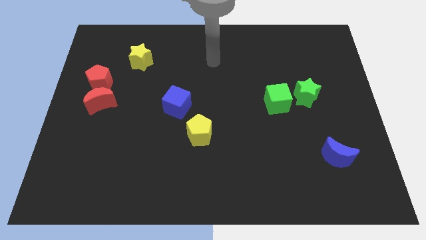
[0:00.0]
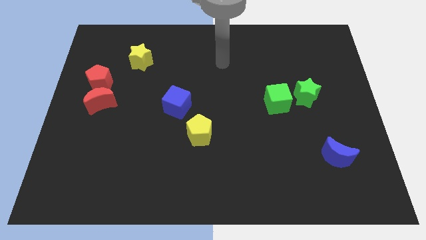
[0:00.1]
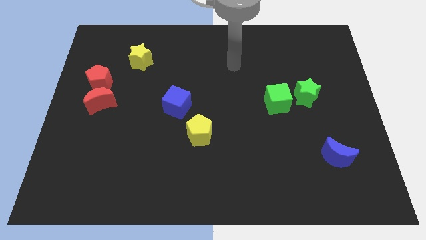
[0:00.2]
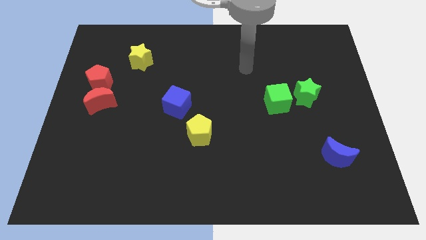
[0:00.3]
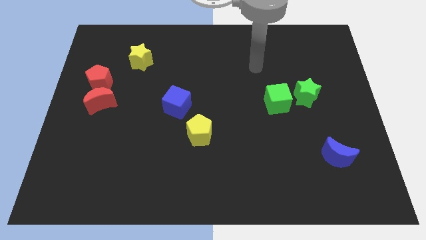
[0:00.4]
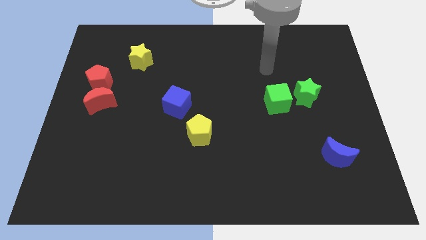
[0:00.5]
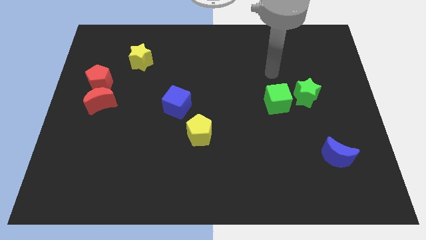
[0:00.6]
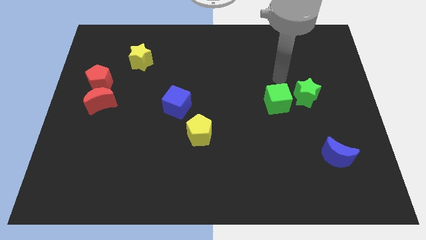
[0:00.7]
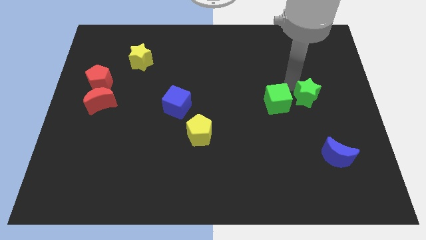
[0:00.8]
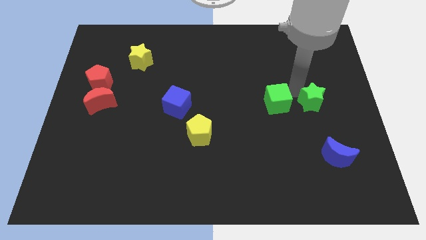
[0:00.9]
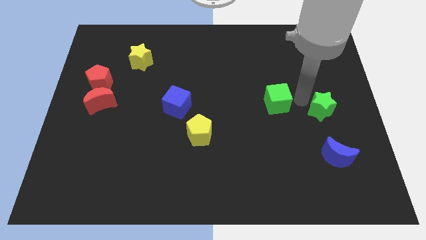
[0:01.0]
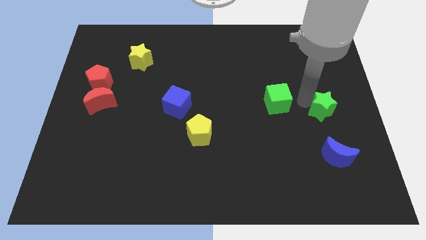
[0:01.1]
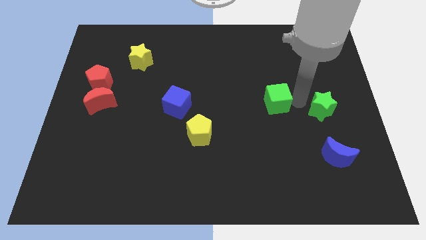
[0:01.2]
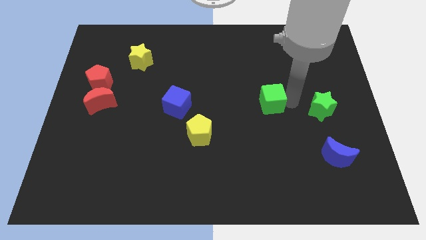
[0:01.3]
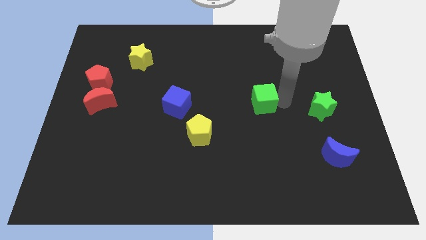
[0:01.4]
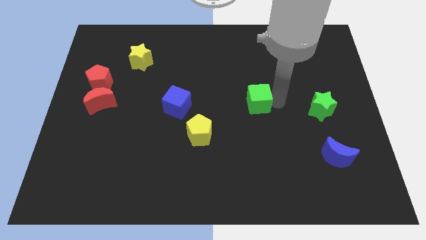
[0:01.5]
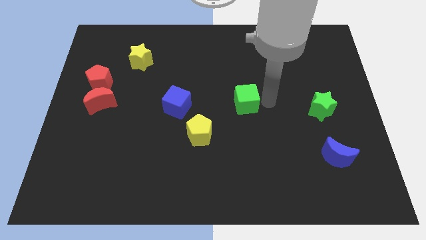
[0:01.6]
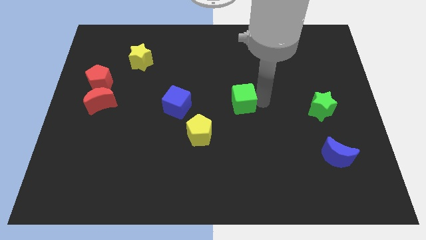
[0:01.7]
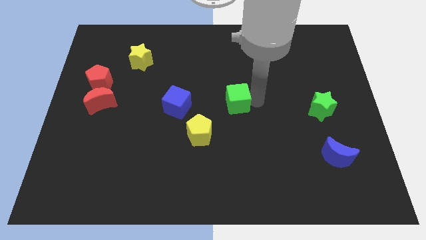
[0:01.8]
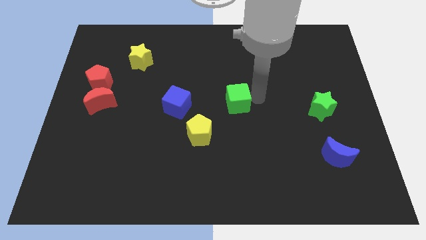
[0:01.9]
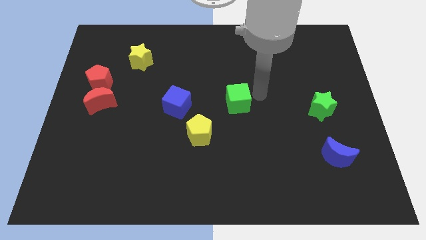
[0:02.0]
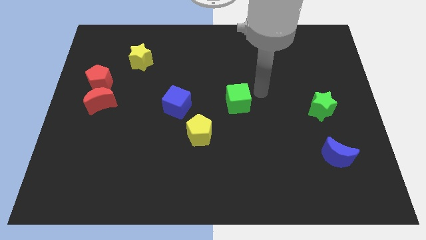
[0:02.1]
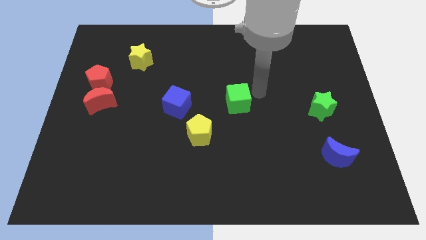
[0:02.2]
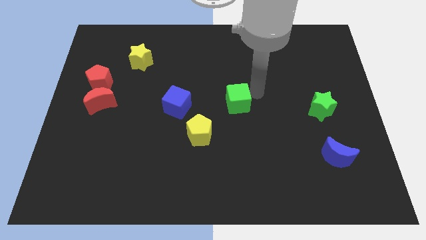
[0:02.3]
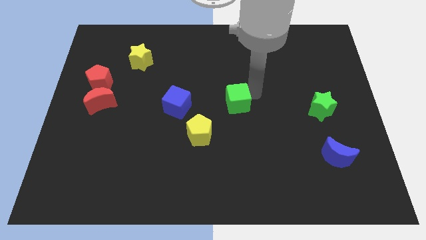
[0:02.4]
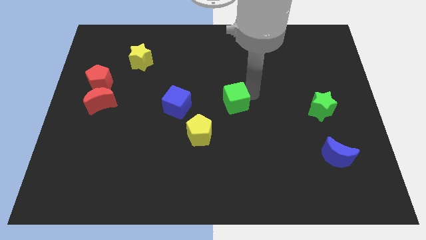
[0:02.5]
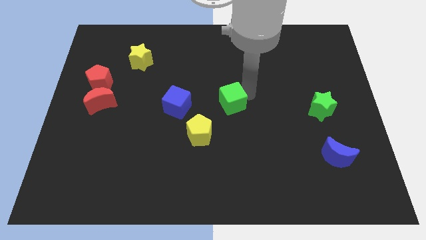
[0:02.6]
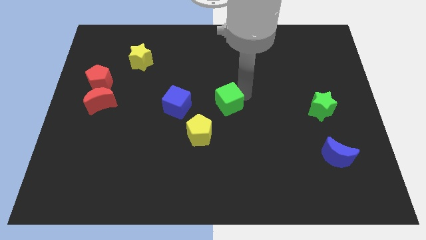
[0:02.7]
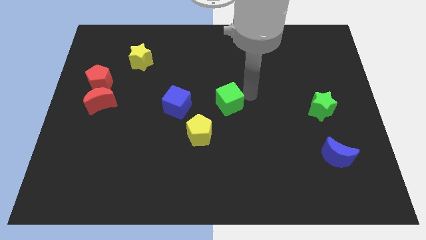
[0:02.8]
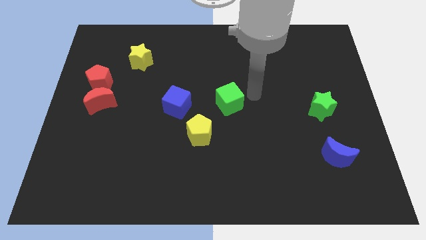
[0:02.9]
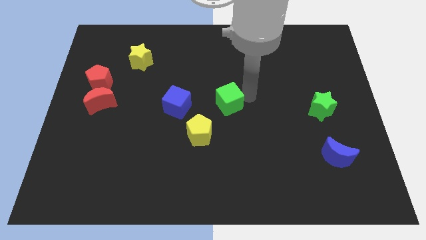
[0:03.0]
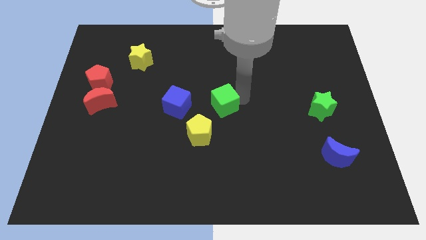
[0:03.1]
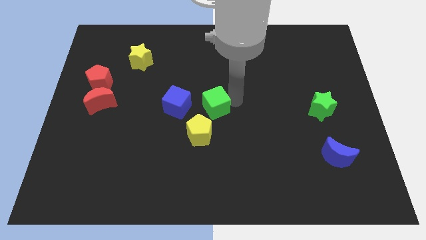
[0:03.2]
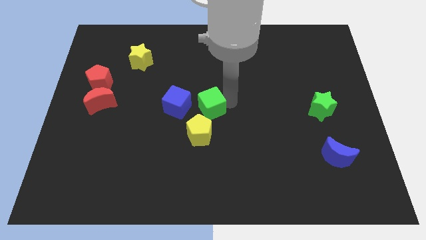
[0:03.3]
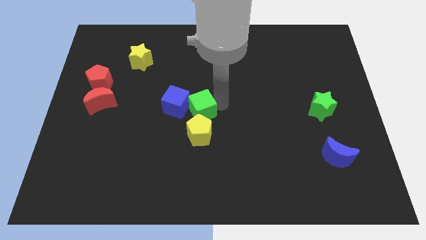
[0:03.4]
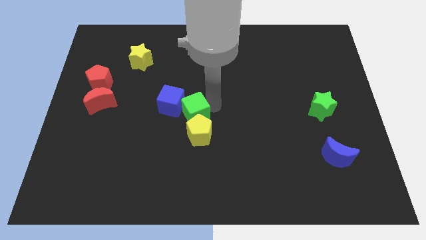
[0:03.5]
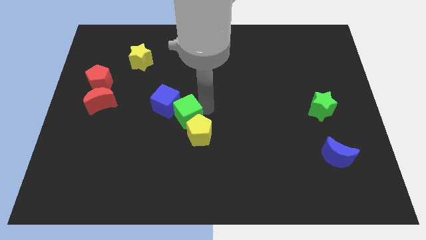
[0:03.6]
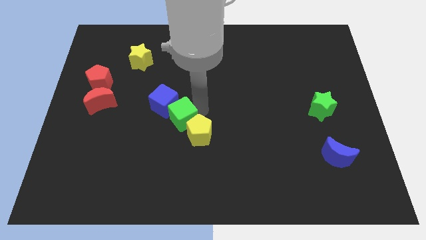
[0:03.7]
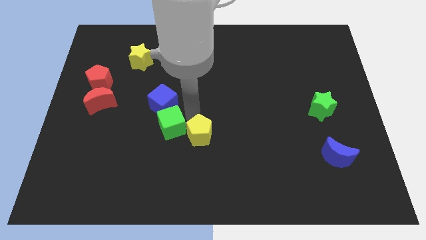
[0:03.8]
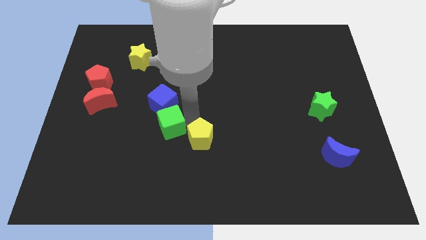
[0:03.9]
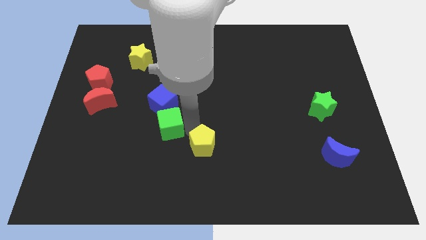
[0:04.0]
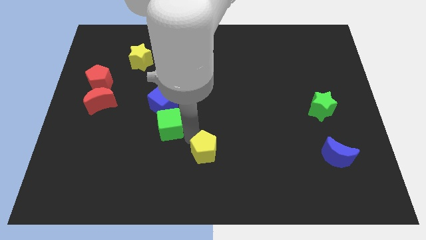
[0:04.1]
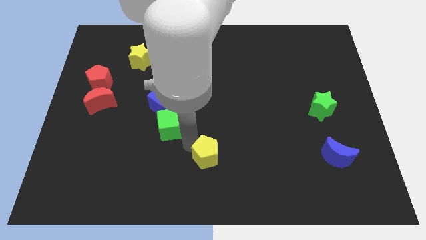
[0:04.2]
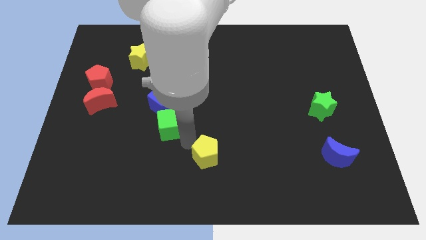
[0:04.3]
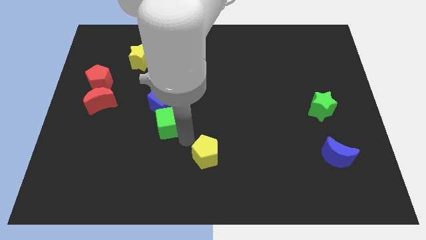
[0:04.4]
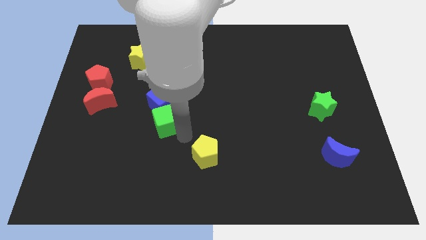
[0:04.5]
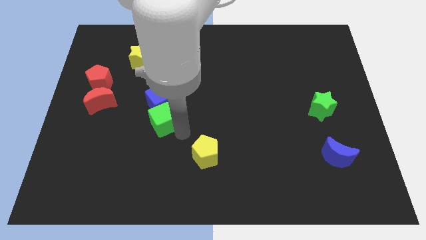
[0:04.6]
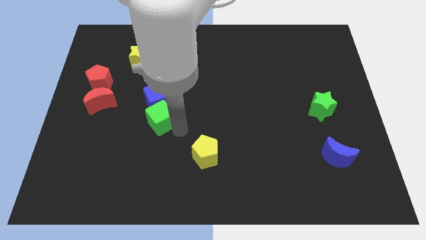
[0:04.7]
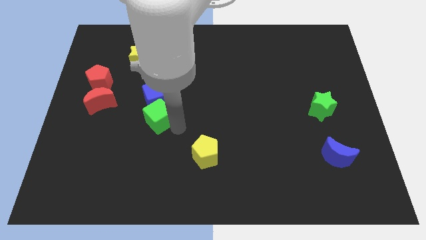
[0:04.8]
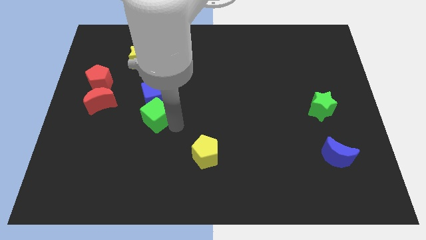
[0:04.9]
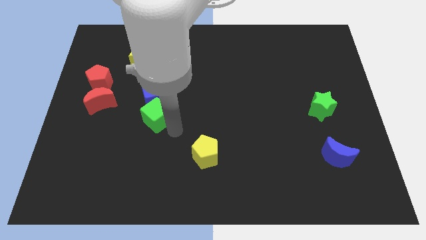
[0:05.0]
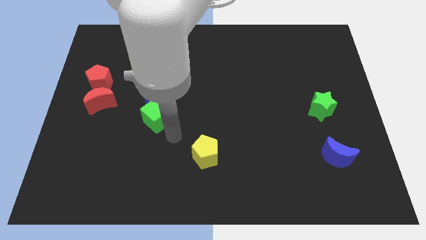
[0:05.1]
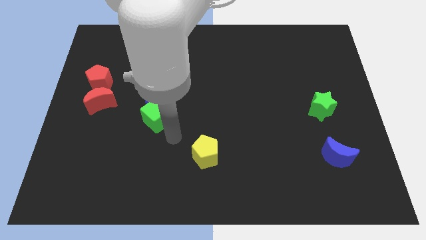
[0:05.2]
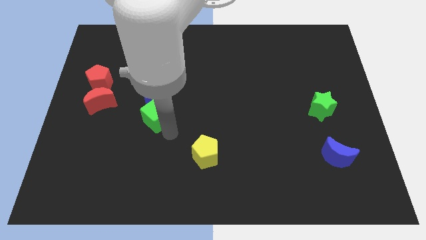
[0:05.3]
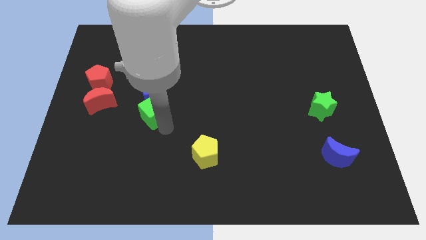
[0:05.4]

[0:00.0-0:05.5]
push the green cube right of the red moon

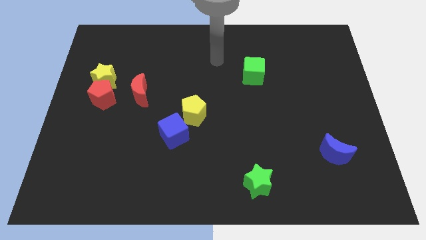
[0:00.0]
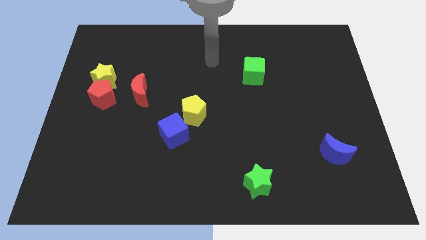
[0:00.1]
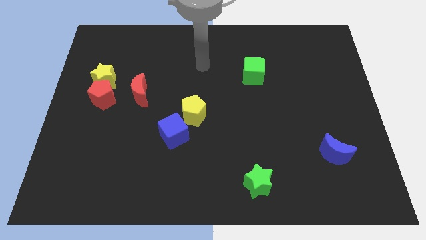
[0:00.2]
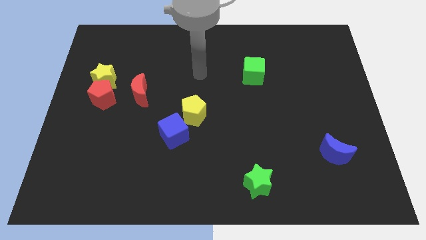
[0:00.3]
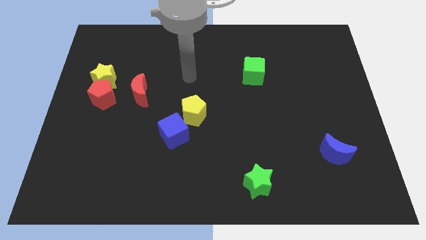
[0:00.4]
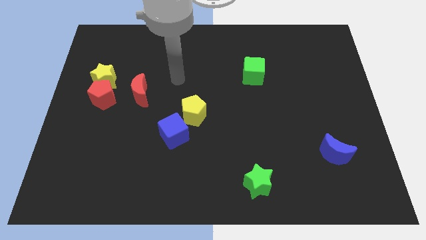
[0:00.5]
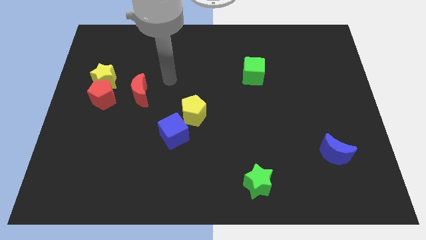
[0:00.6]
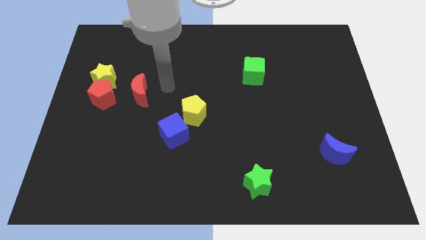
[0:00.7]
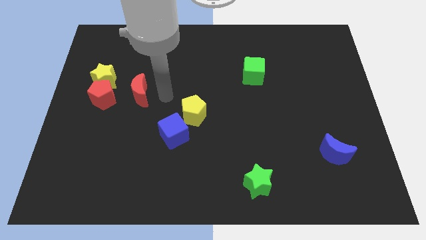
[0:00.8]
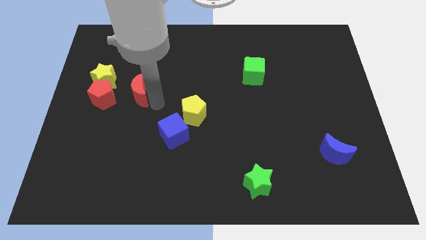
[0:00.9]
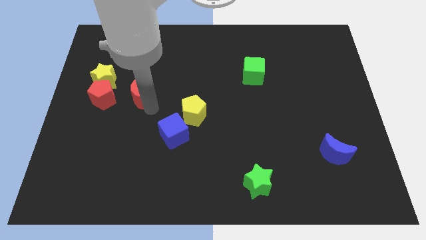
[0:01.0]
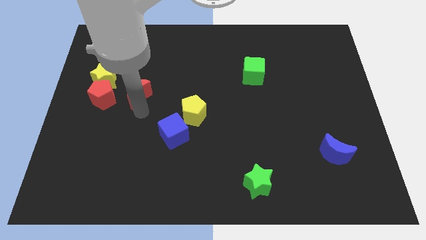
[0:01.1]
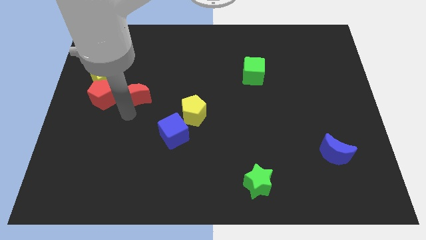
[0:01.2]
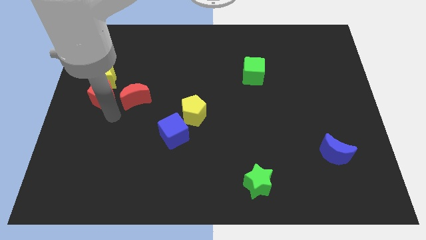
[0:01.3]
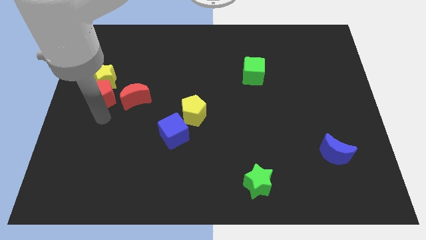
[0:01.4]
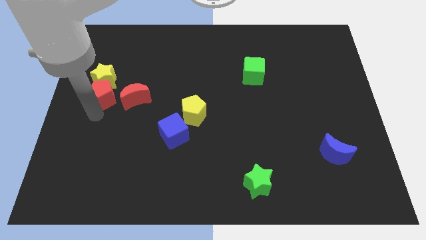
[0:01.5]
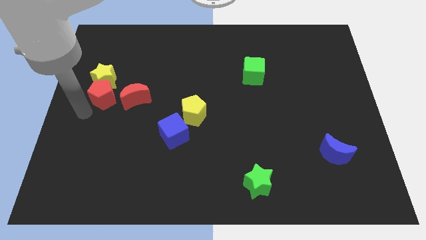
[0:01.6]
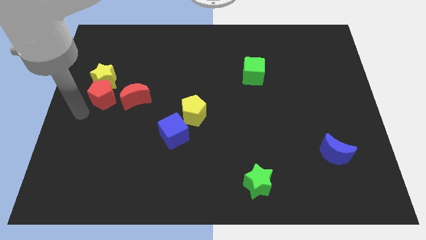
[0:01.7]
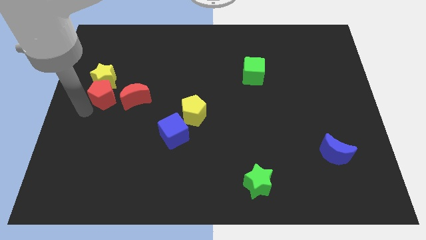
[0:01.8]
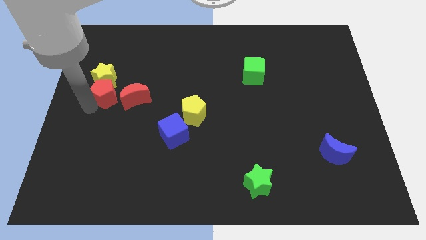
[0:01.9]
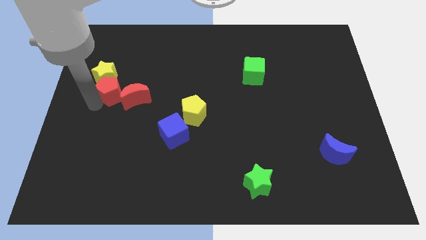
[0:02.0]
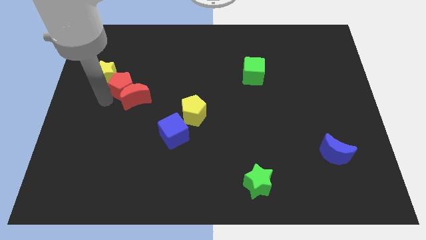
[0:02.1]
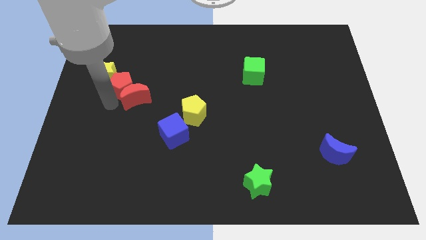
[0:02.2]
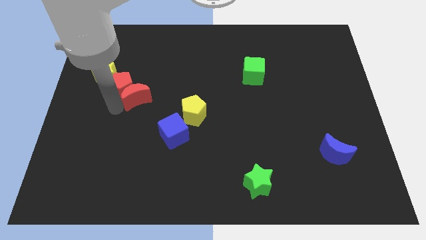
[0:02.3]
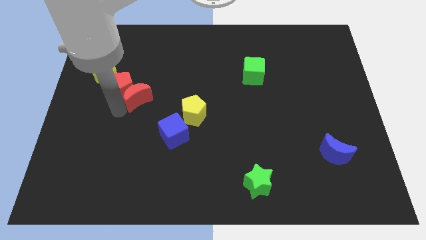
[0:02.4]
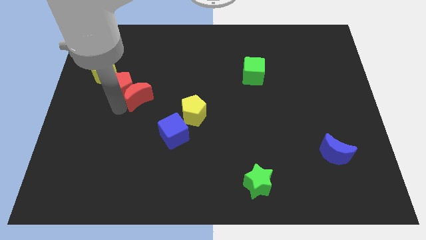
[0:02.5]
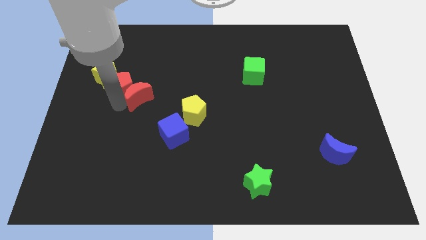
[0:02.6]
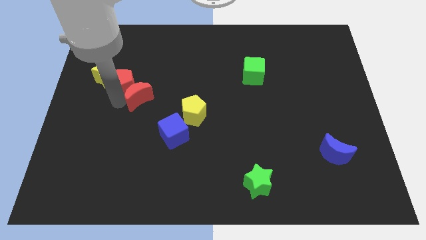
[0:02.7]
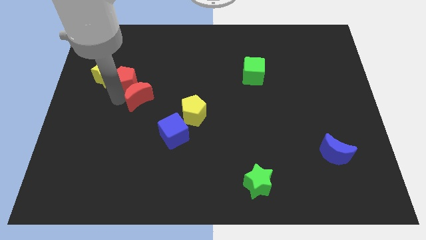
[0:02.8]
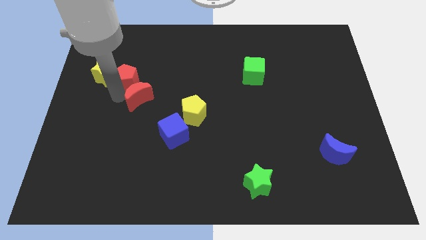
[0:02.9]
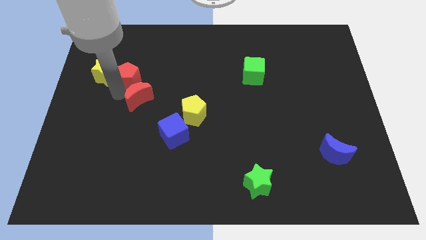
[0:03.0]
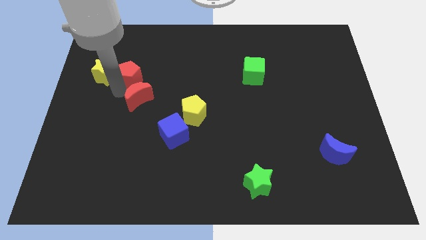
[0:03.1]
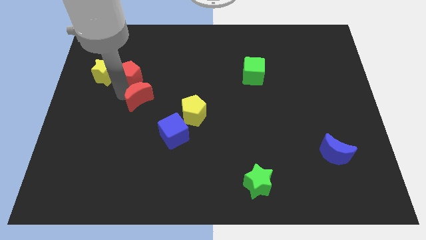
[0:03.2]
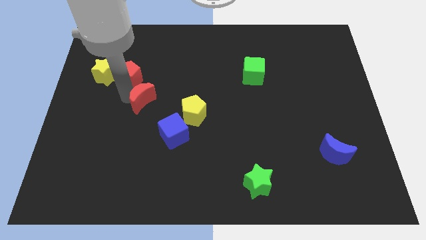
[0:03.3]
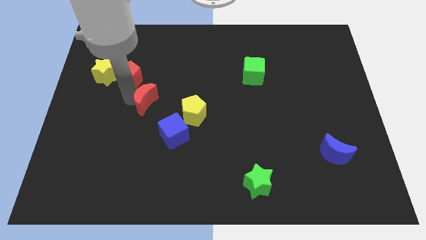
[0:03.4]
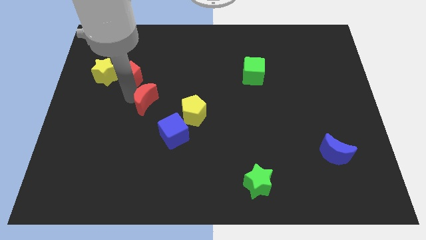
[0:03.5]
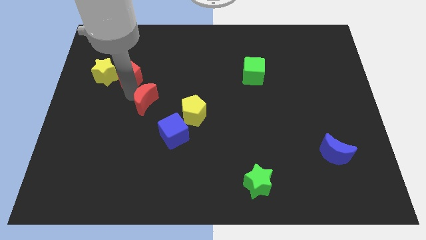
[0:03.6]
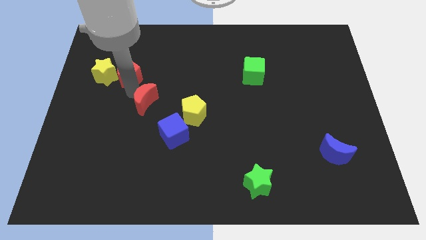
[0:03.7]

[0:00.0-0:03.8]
put the red pentagon to the top right of the yellow star
